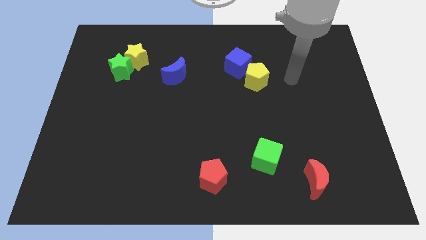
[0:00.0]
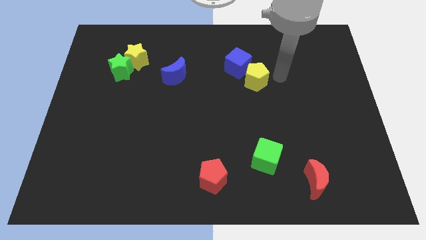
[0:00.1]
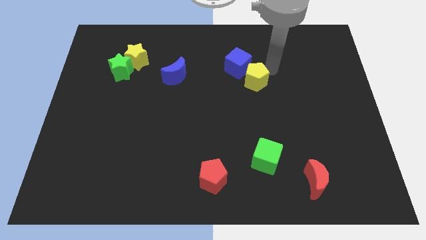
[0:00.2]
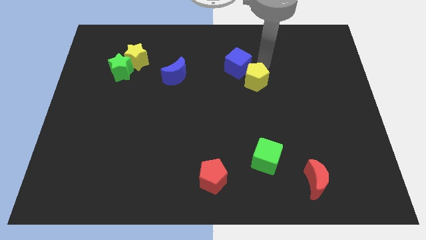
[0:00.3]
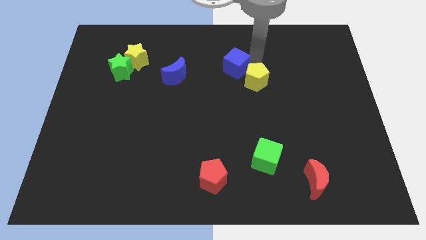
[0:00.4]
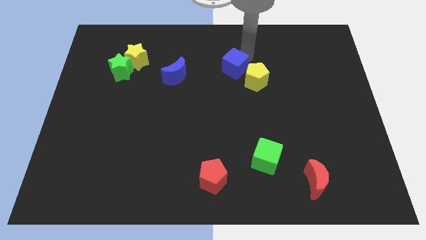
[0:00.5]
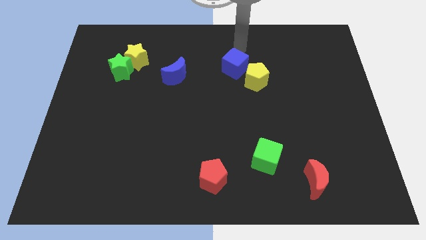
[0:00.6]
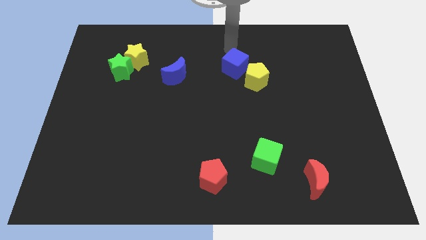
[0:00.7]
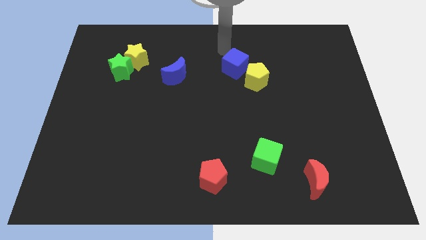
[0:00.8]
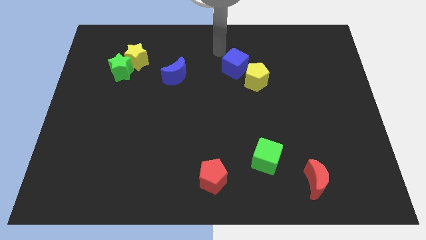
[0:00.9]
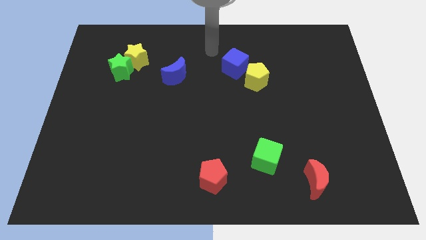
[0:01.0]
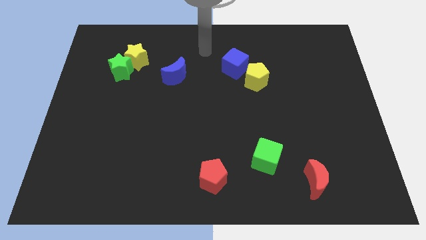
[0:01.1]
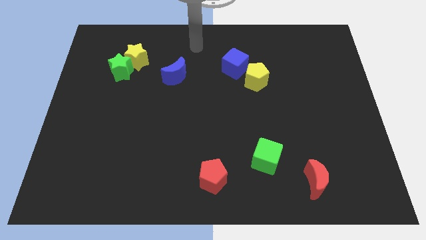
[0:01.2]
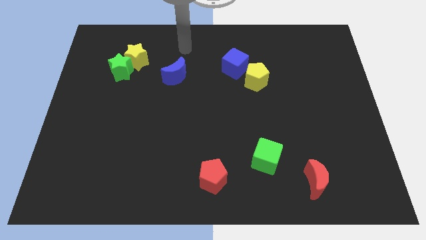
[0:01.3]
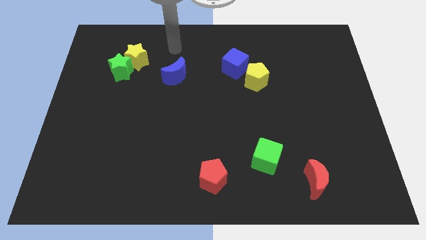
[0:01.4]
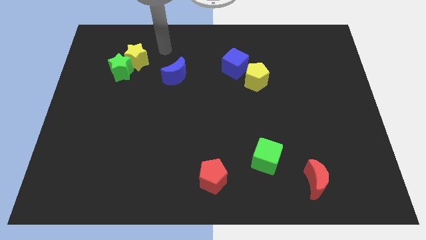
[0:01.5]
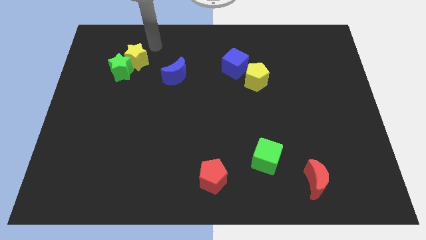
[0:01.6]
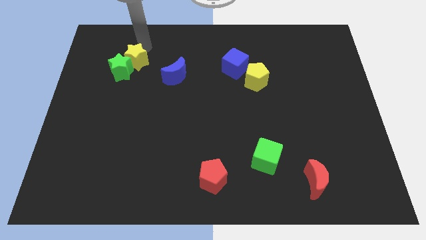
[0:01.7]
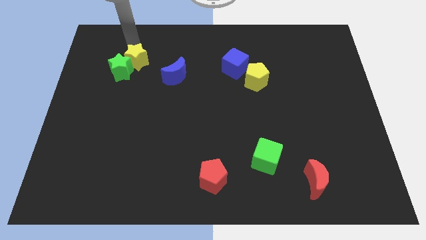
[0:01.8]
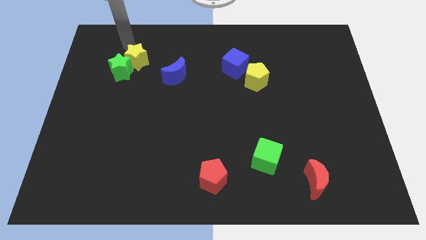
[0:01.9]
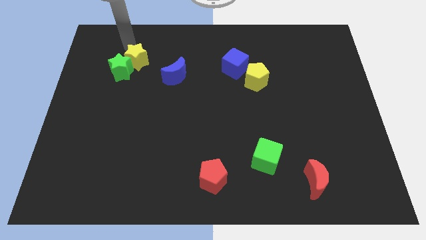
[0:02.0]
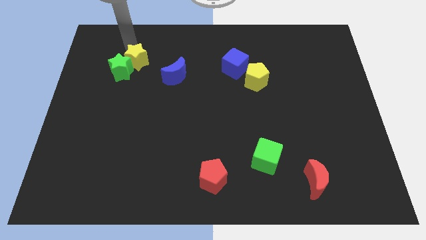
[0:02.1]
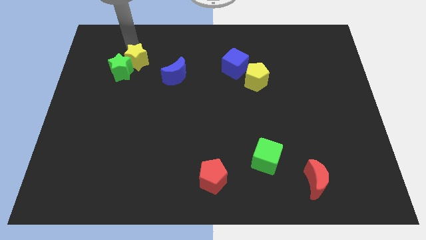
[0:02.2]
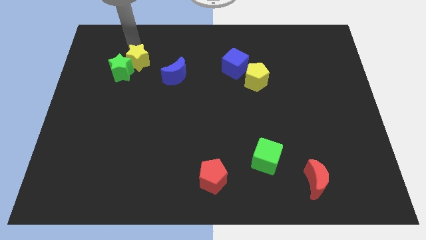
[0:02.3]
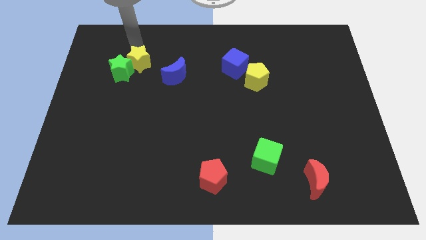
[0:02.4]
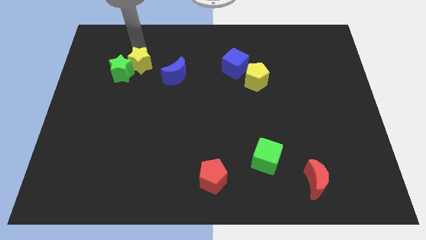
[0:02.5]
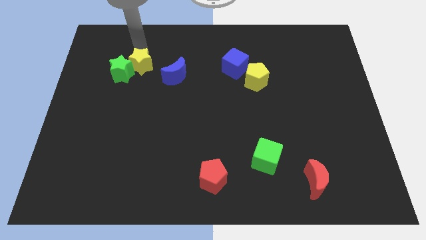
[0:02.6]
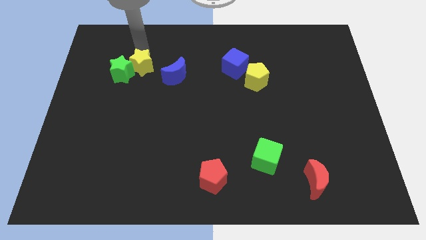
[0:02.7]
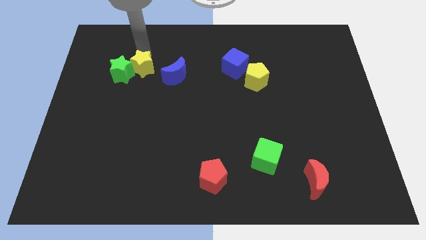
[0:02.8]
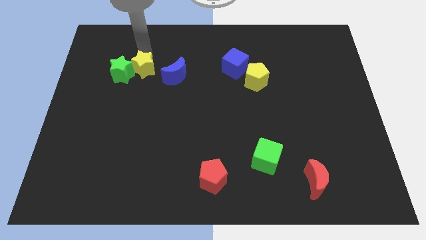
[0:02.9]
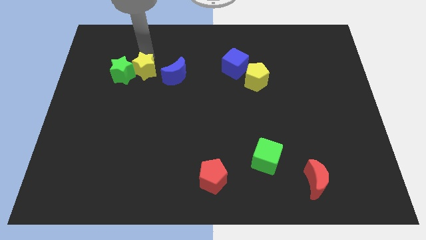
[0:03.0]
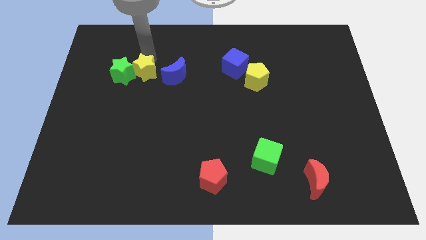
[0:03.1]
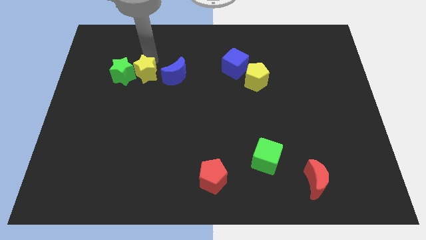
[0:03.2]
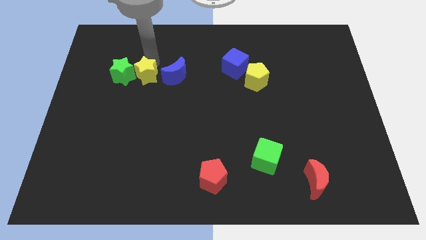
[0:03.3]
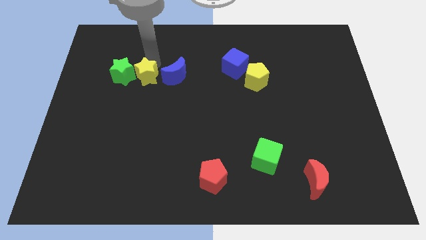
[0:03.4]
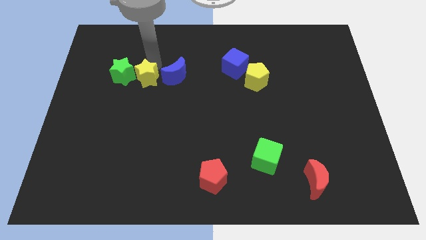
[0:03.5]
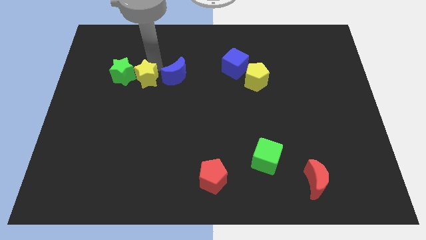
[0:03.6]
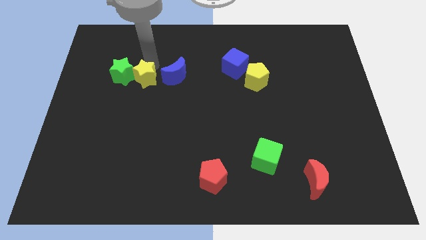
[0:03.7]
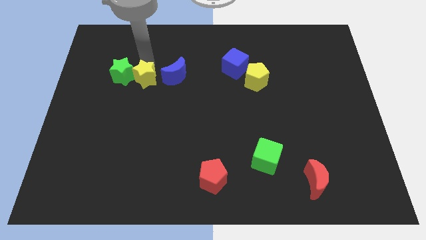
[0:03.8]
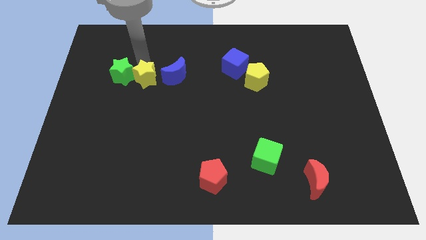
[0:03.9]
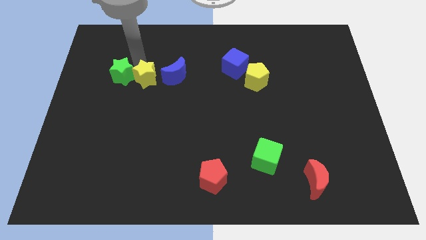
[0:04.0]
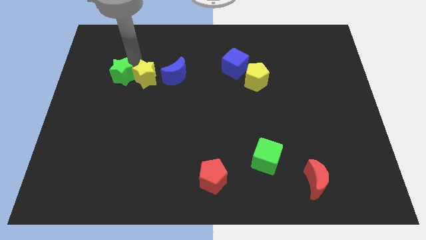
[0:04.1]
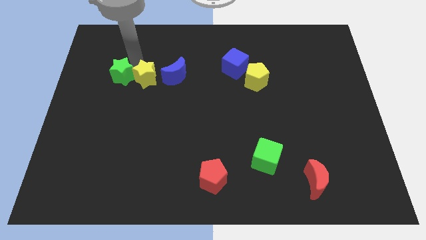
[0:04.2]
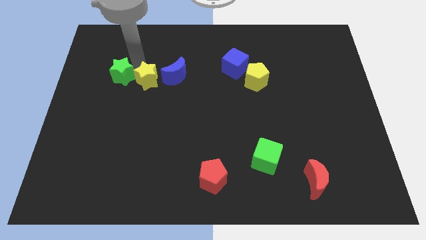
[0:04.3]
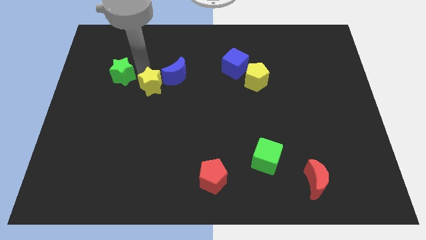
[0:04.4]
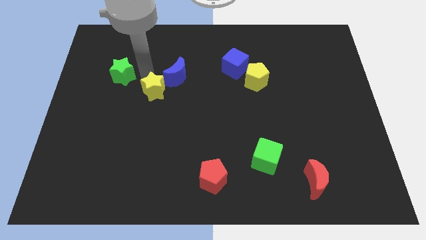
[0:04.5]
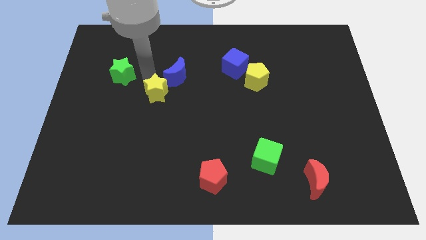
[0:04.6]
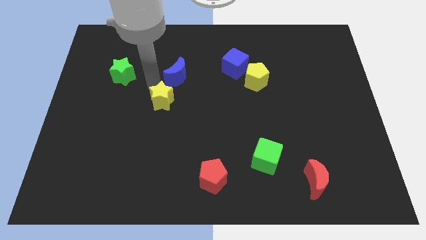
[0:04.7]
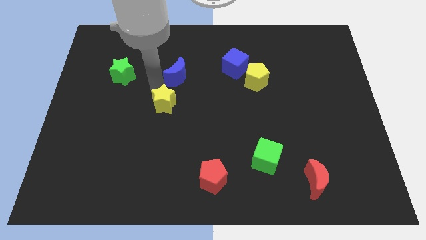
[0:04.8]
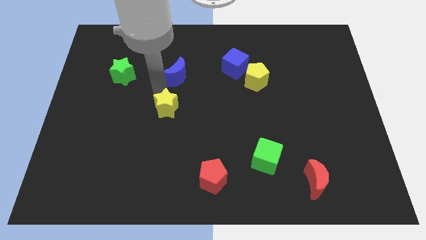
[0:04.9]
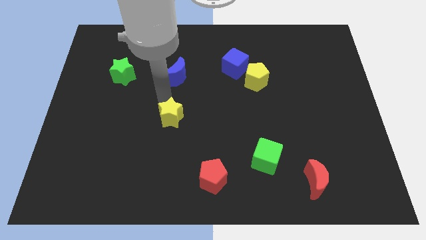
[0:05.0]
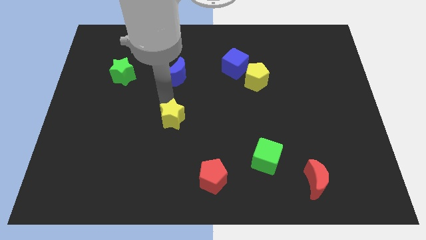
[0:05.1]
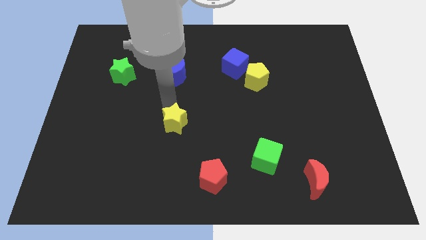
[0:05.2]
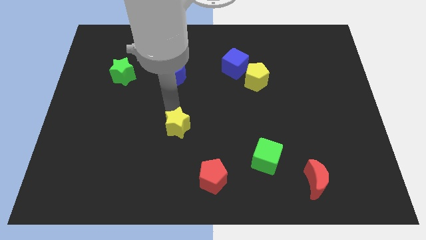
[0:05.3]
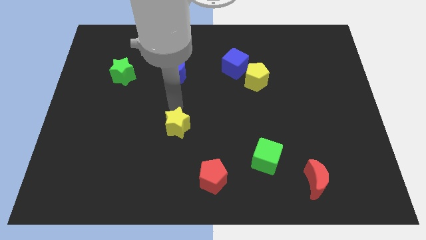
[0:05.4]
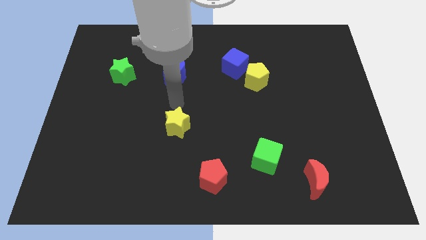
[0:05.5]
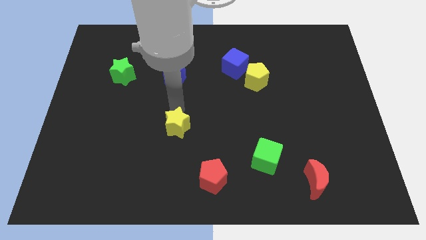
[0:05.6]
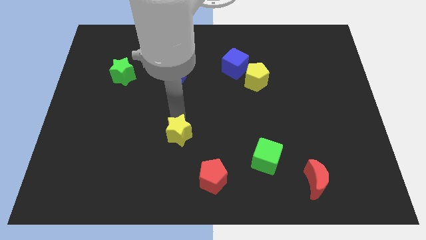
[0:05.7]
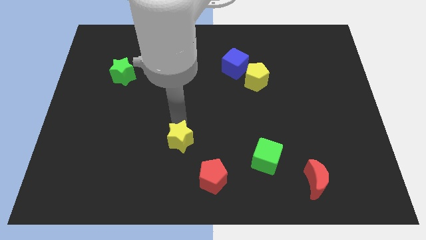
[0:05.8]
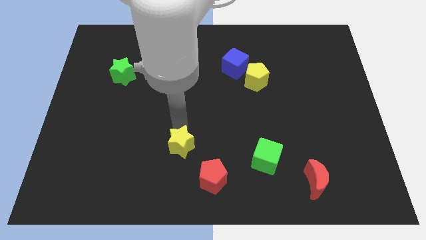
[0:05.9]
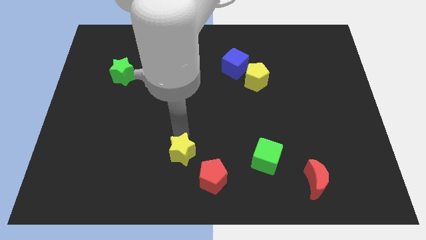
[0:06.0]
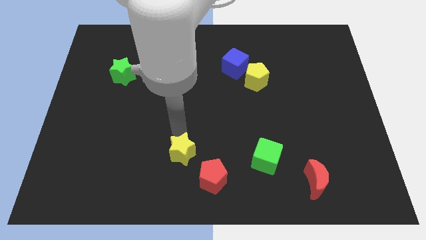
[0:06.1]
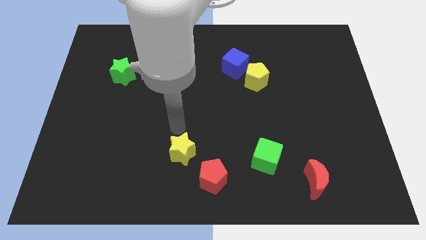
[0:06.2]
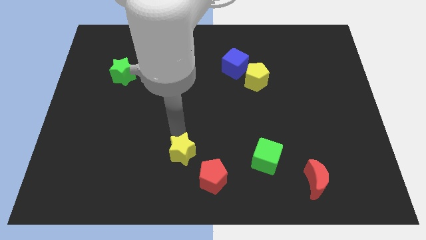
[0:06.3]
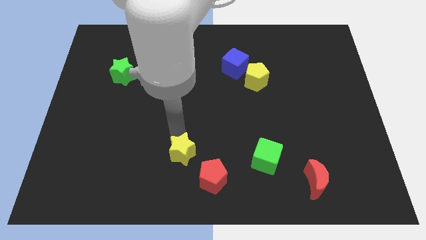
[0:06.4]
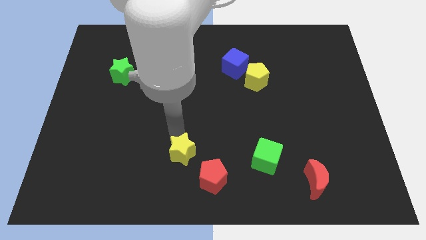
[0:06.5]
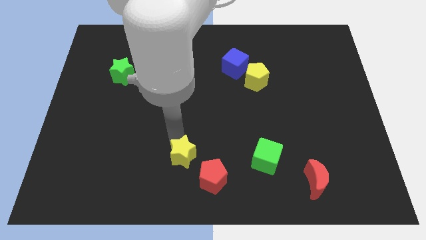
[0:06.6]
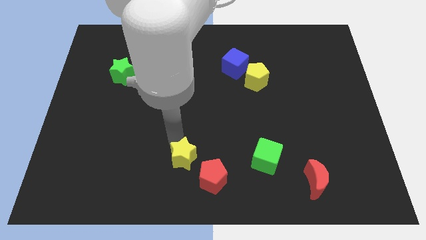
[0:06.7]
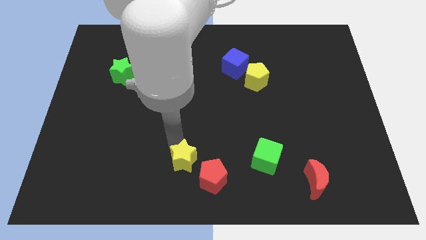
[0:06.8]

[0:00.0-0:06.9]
move the yellow star to the bottom side
